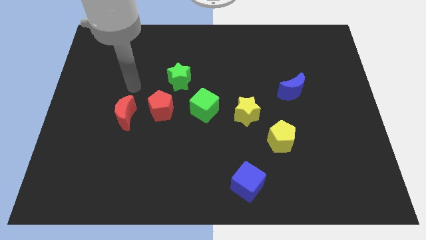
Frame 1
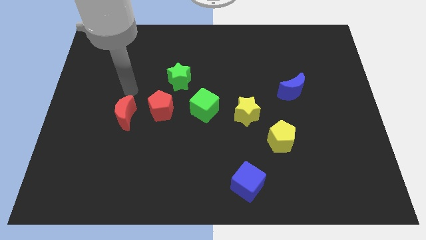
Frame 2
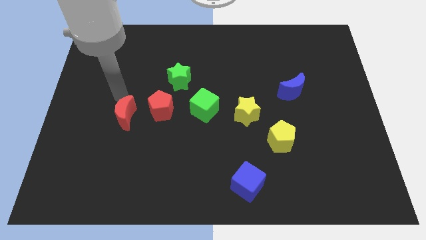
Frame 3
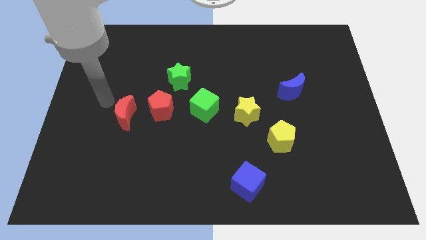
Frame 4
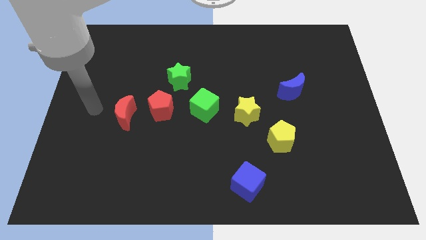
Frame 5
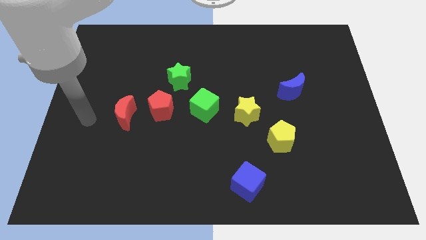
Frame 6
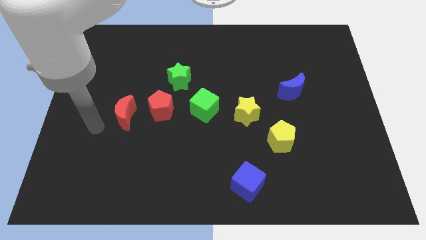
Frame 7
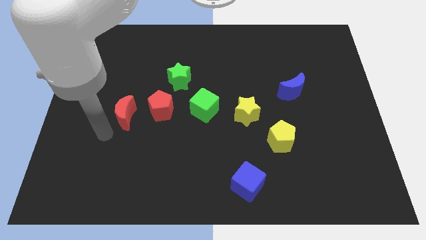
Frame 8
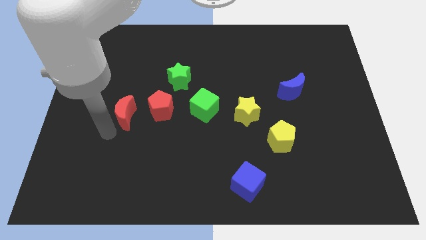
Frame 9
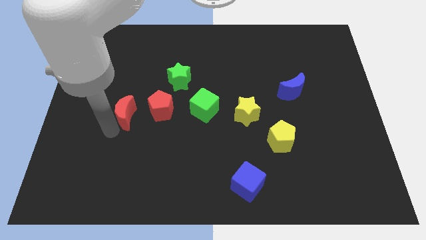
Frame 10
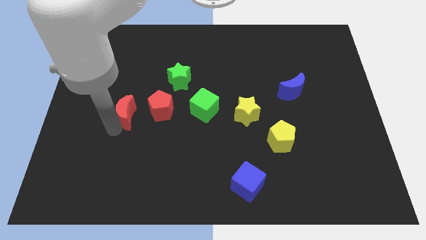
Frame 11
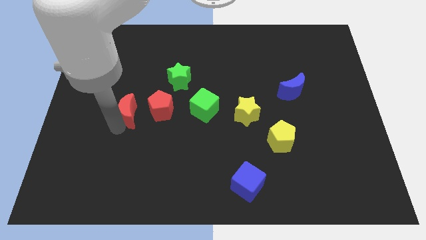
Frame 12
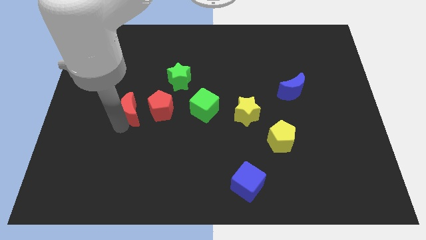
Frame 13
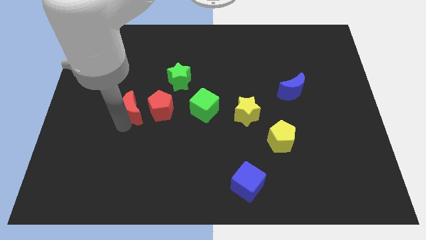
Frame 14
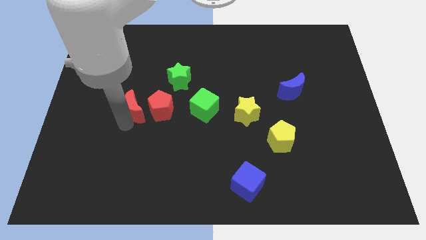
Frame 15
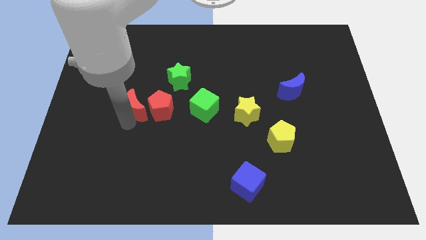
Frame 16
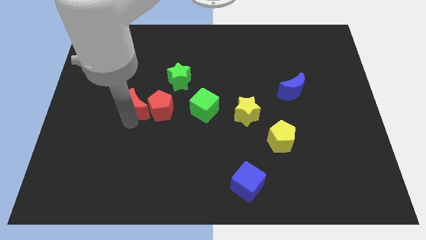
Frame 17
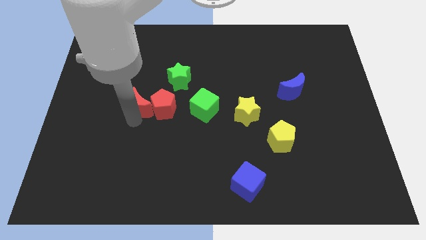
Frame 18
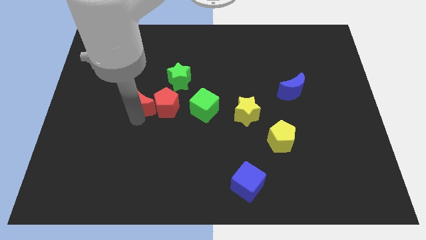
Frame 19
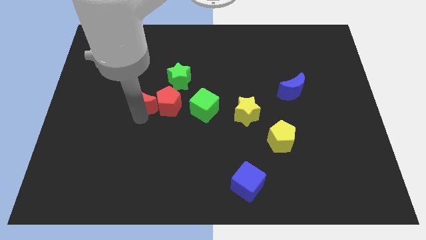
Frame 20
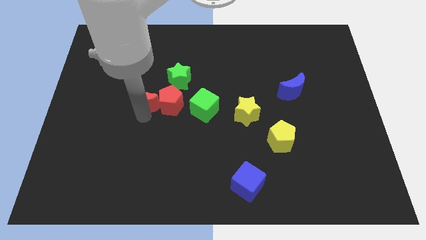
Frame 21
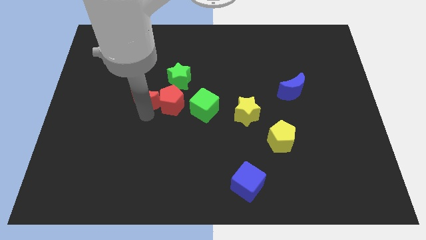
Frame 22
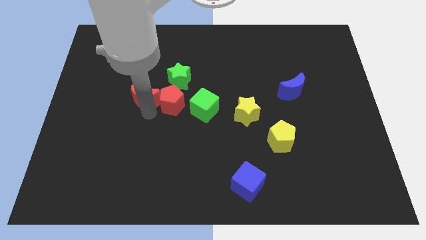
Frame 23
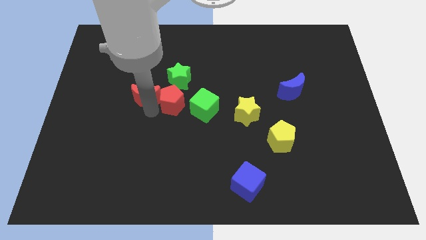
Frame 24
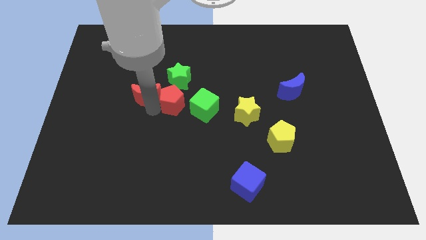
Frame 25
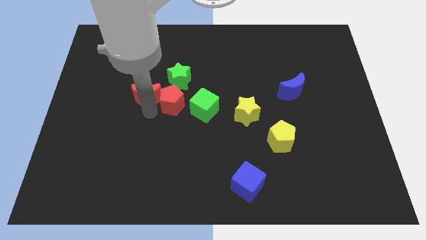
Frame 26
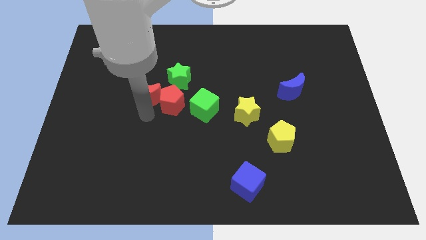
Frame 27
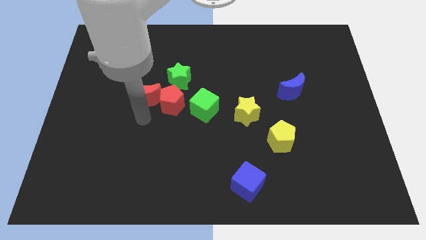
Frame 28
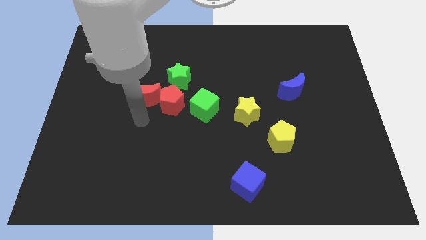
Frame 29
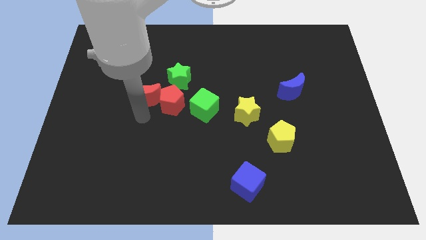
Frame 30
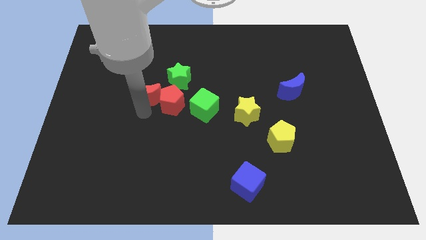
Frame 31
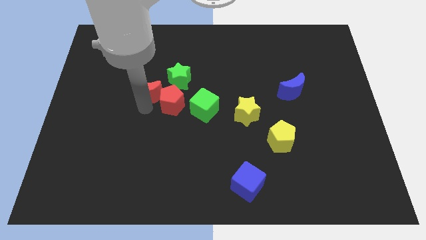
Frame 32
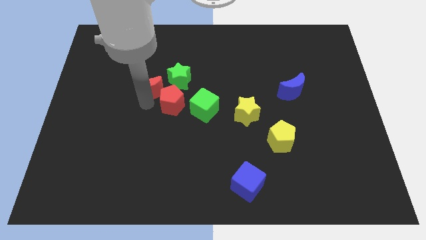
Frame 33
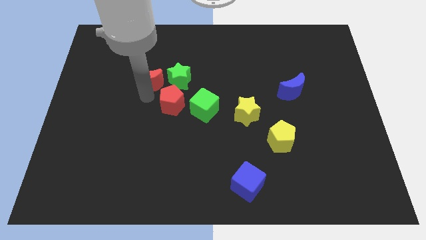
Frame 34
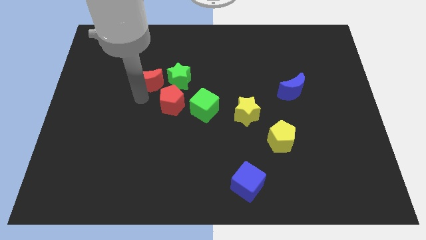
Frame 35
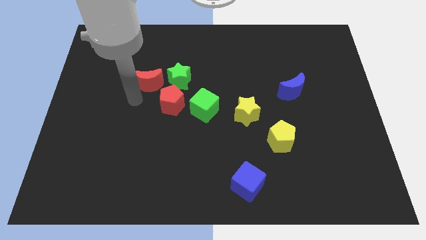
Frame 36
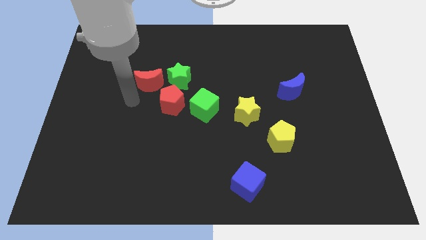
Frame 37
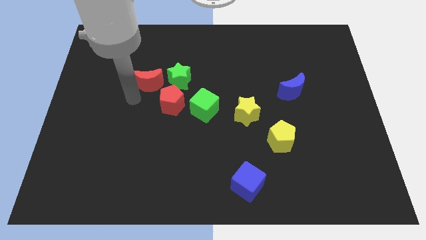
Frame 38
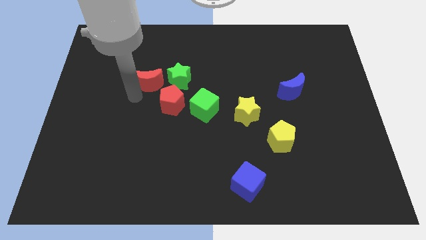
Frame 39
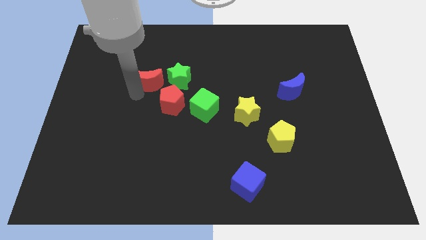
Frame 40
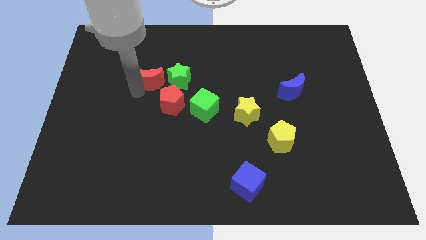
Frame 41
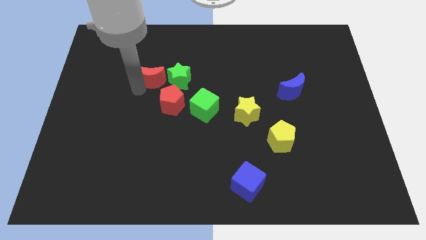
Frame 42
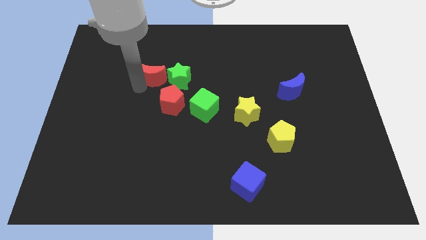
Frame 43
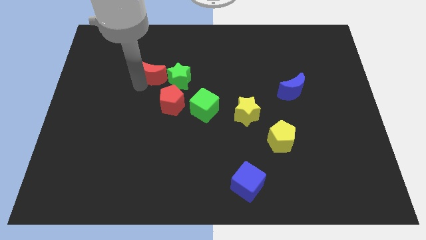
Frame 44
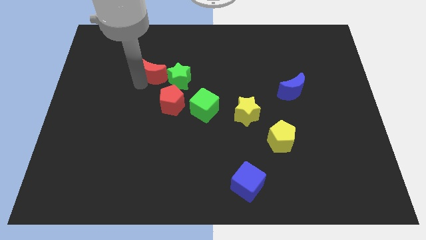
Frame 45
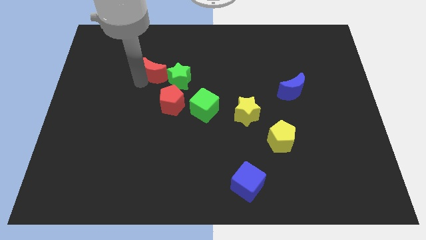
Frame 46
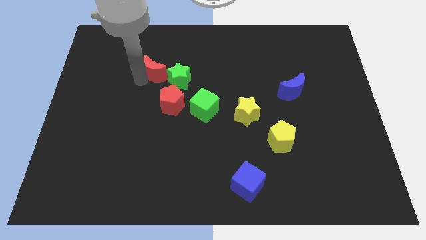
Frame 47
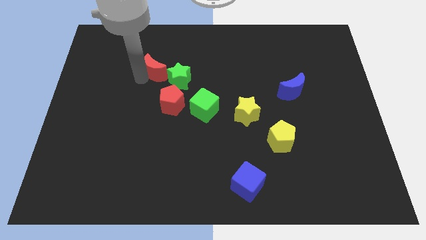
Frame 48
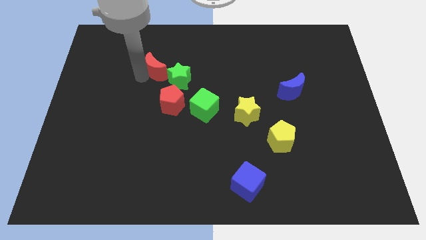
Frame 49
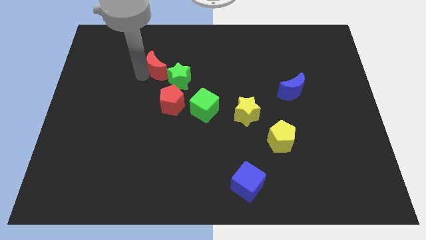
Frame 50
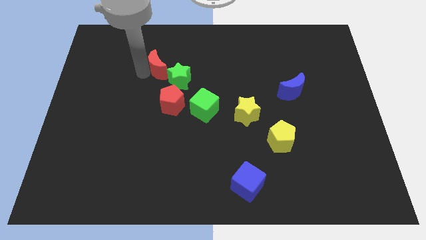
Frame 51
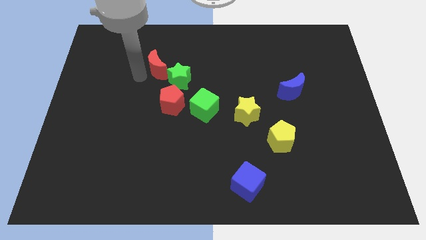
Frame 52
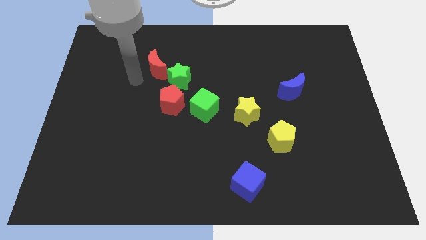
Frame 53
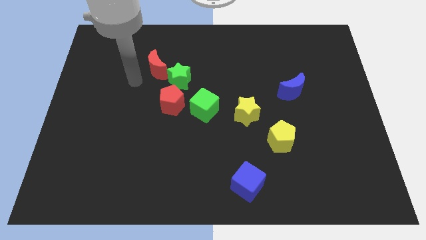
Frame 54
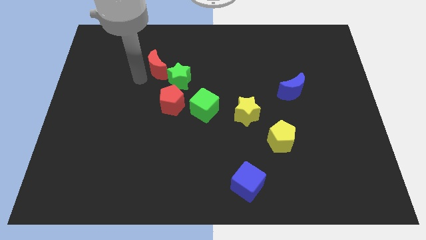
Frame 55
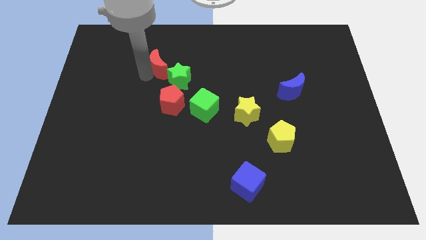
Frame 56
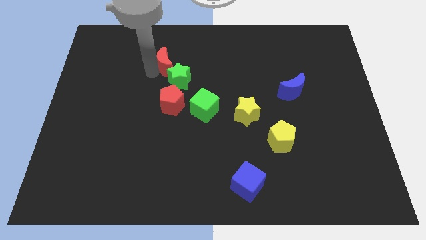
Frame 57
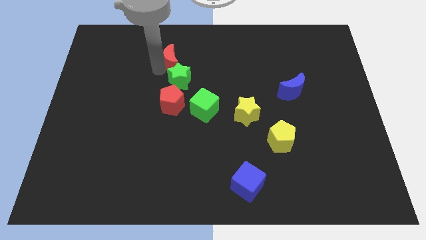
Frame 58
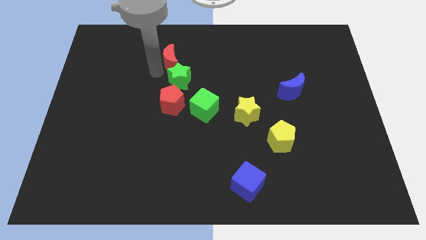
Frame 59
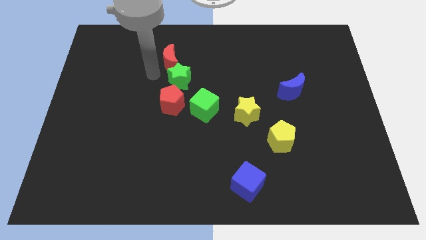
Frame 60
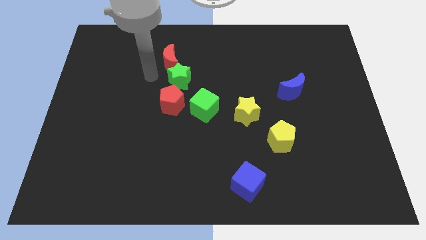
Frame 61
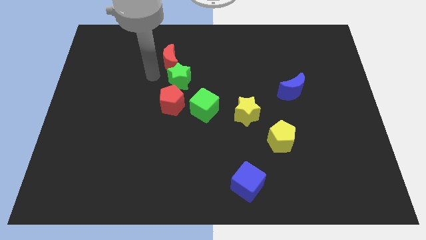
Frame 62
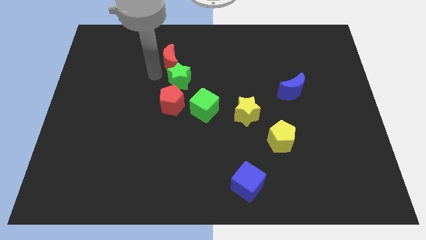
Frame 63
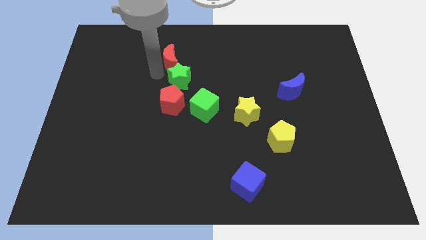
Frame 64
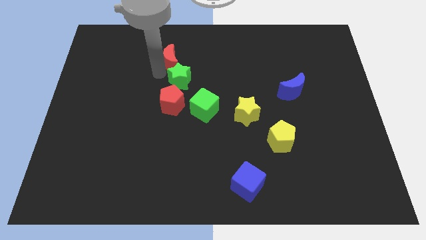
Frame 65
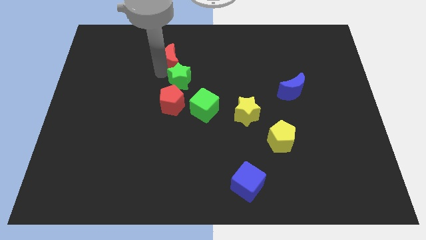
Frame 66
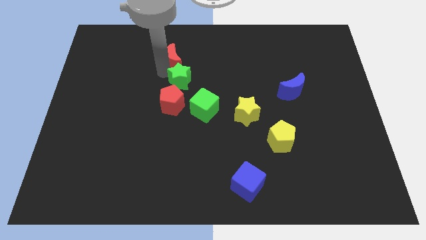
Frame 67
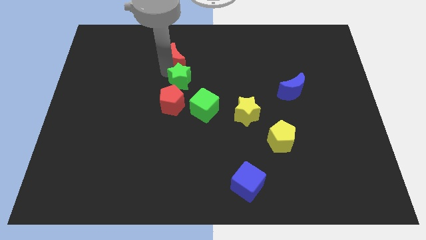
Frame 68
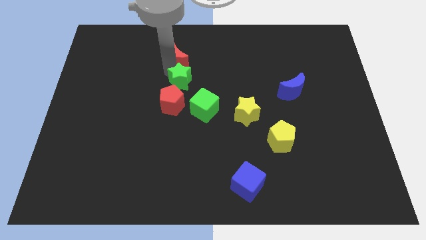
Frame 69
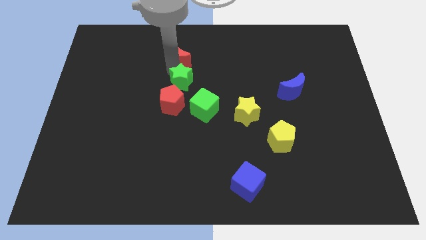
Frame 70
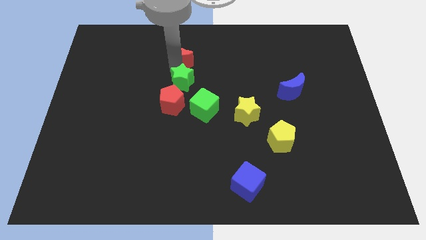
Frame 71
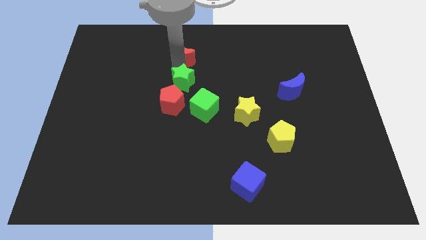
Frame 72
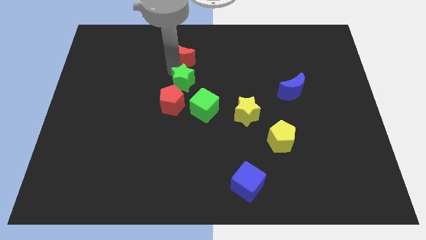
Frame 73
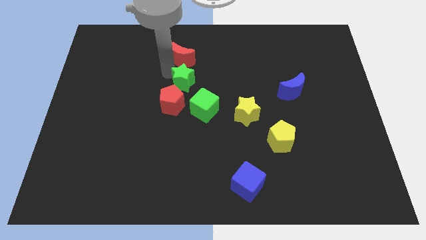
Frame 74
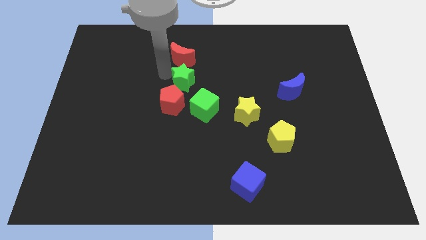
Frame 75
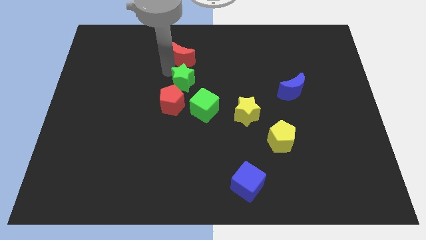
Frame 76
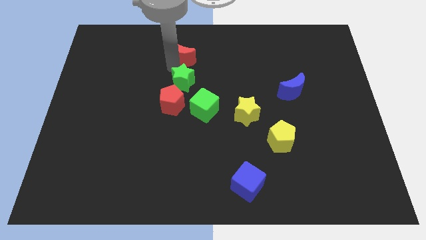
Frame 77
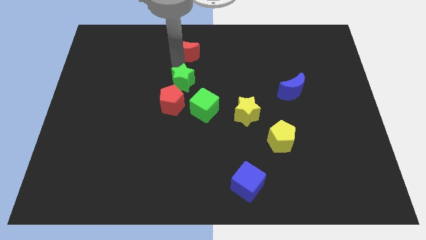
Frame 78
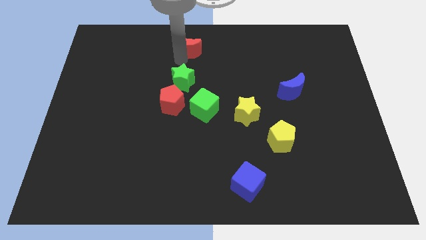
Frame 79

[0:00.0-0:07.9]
slide the red moon to the towards your base

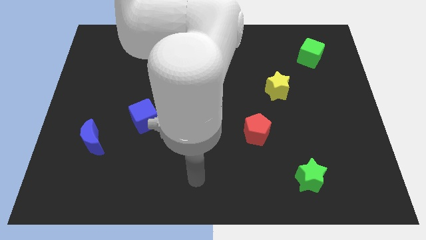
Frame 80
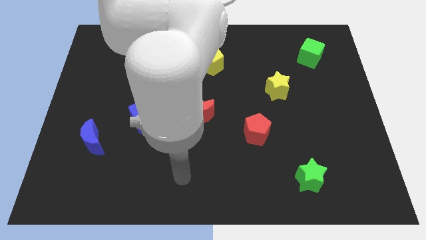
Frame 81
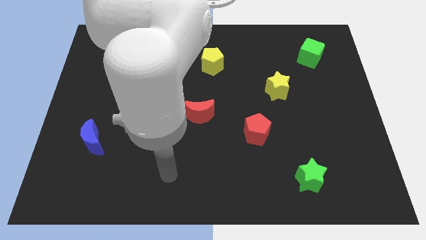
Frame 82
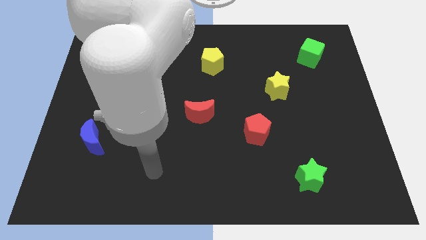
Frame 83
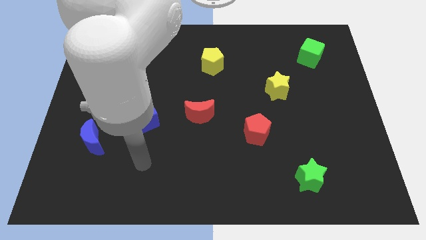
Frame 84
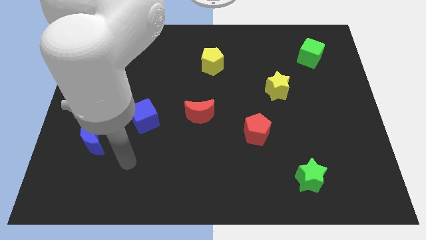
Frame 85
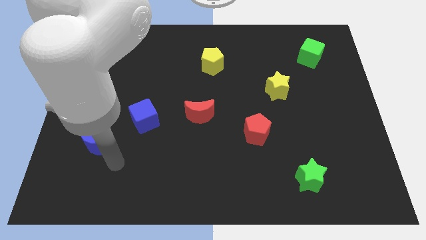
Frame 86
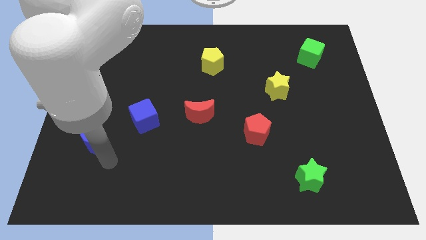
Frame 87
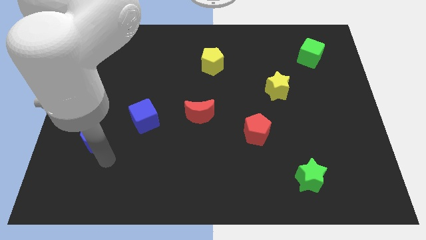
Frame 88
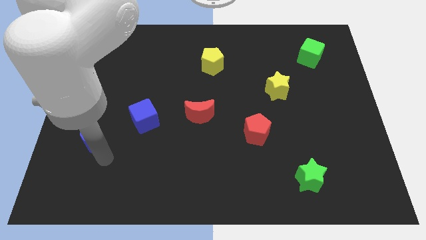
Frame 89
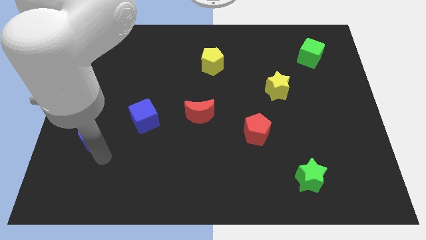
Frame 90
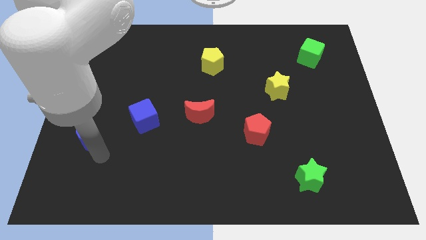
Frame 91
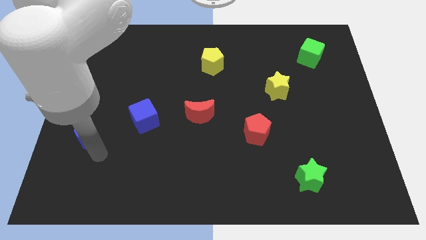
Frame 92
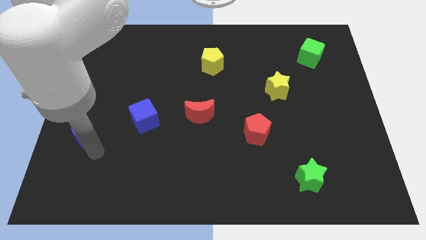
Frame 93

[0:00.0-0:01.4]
slide the blue moon to the left side of the board
